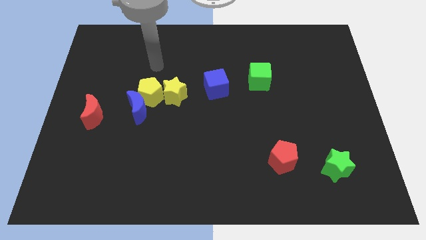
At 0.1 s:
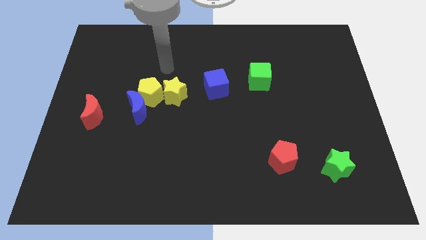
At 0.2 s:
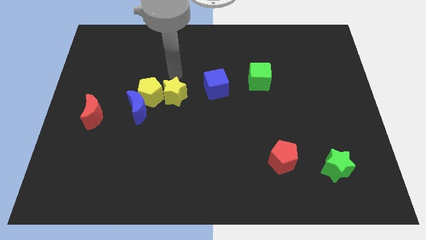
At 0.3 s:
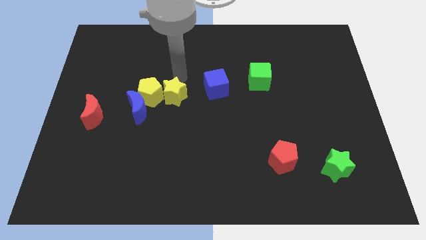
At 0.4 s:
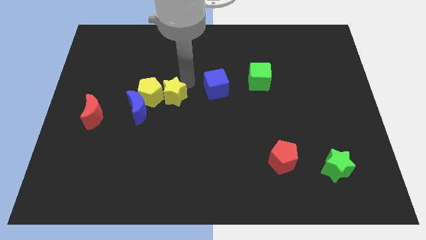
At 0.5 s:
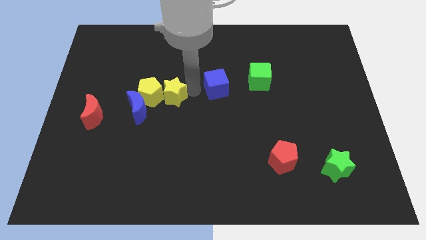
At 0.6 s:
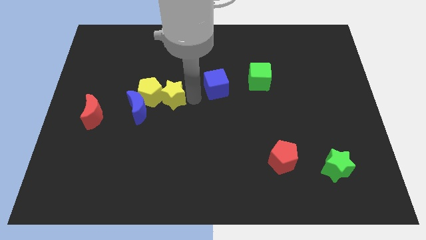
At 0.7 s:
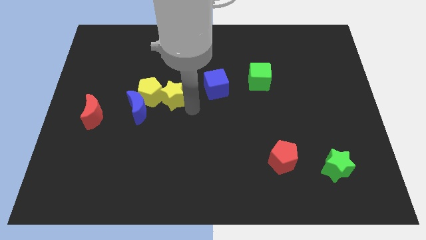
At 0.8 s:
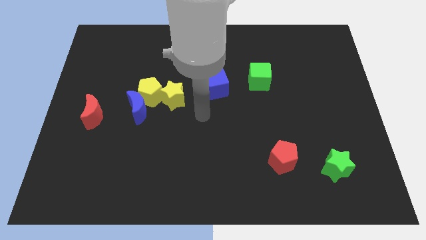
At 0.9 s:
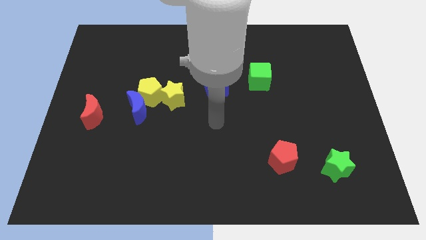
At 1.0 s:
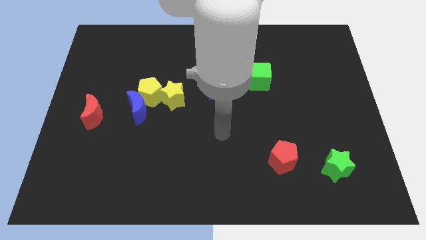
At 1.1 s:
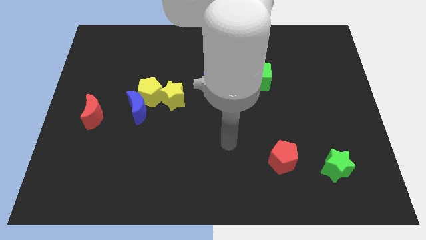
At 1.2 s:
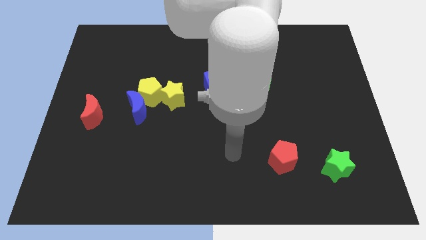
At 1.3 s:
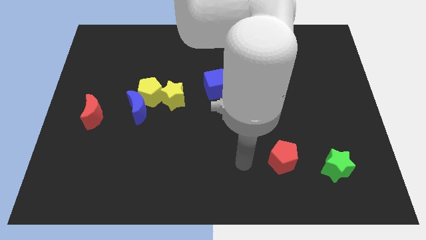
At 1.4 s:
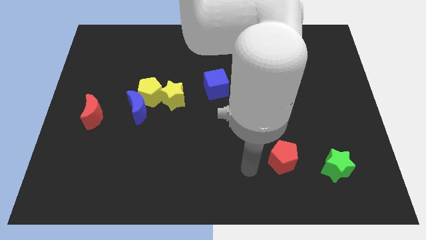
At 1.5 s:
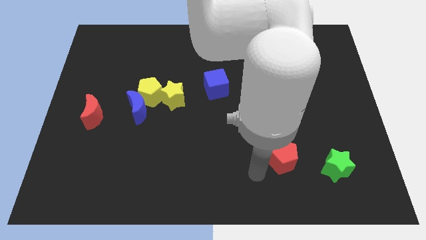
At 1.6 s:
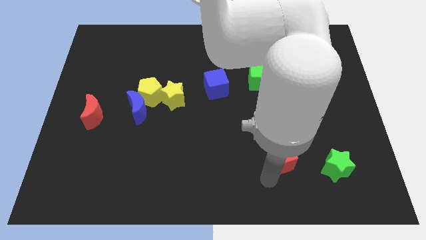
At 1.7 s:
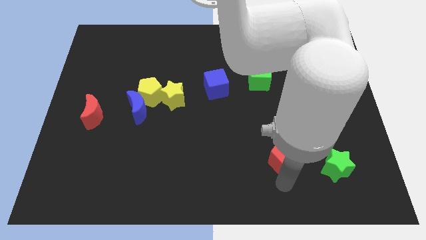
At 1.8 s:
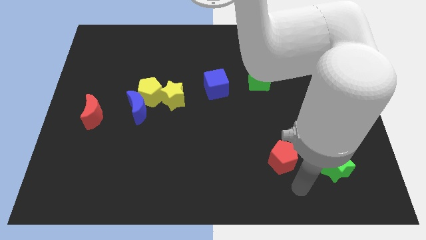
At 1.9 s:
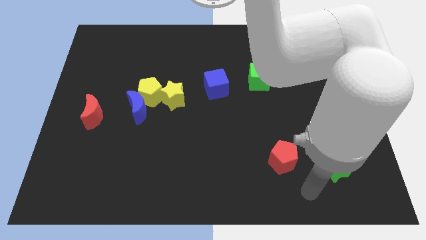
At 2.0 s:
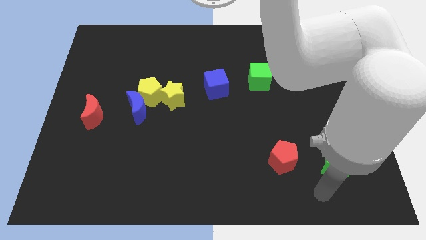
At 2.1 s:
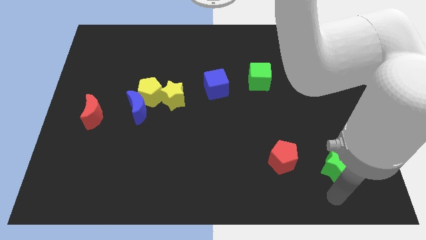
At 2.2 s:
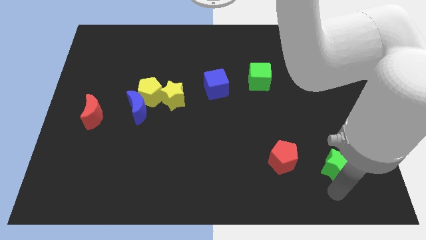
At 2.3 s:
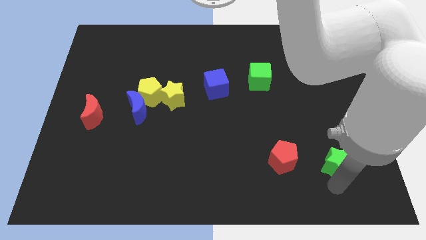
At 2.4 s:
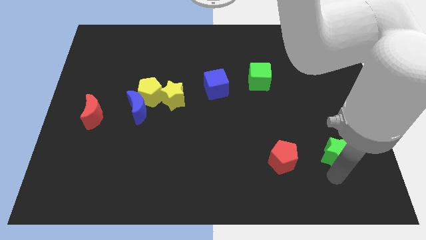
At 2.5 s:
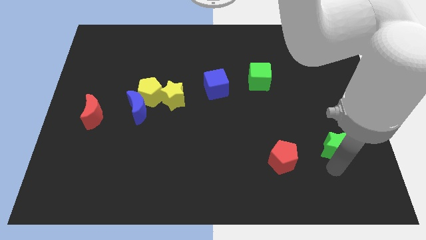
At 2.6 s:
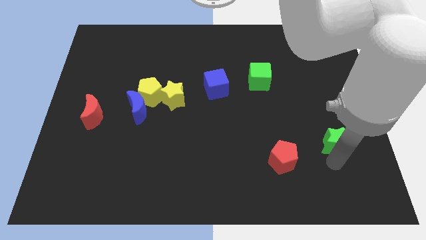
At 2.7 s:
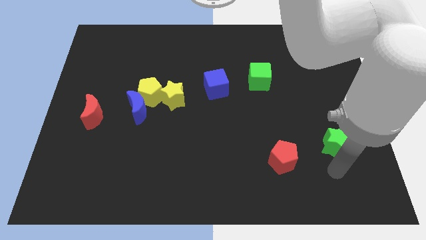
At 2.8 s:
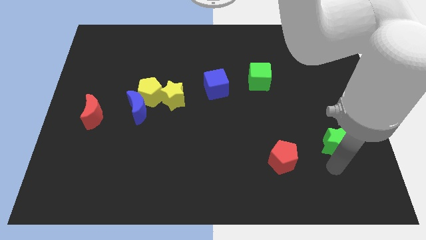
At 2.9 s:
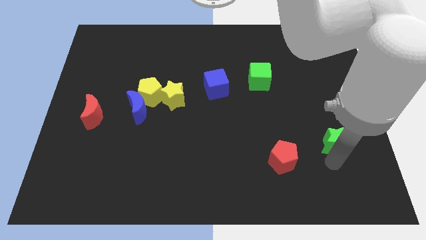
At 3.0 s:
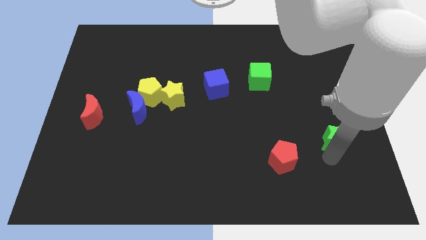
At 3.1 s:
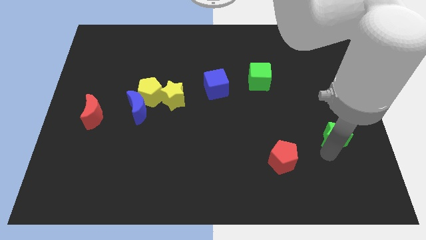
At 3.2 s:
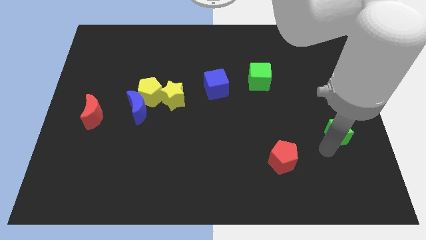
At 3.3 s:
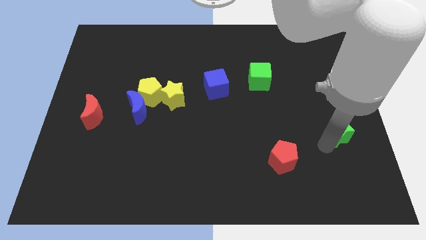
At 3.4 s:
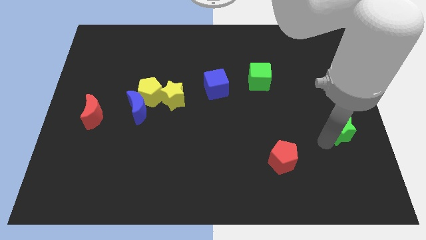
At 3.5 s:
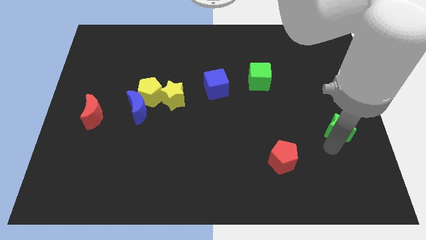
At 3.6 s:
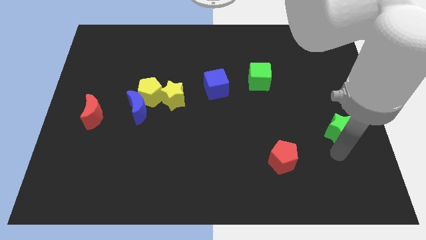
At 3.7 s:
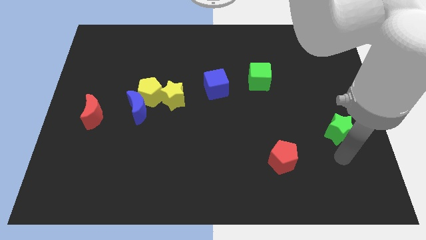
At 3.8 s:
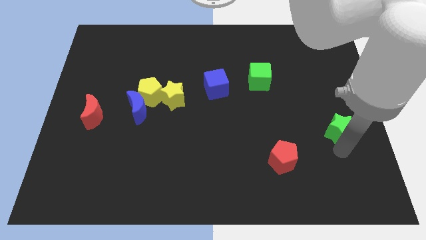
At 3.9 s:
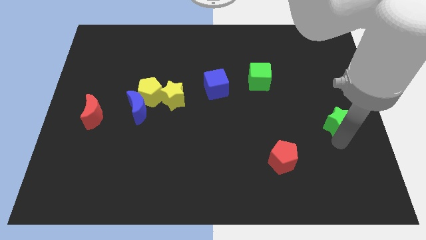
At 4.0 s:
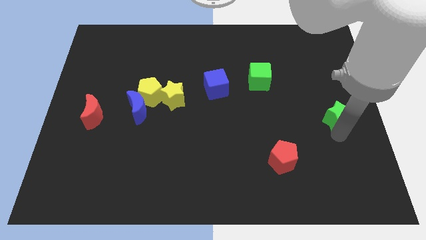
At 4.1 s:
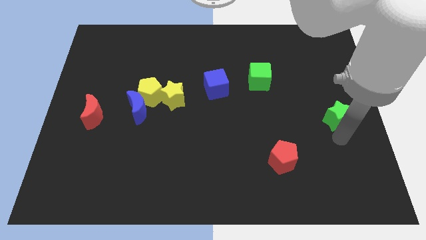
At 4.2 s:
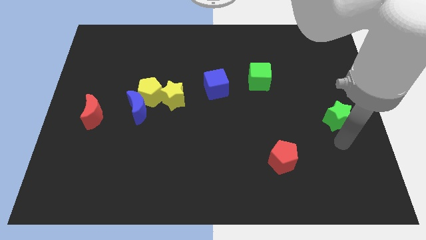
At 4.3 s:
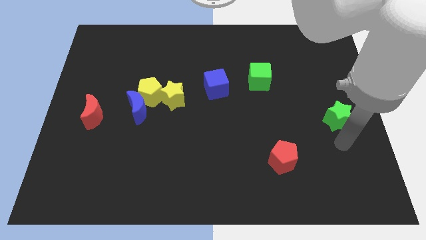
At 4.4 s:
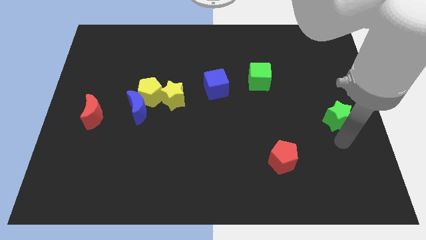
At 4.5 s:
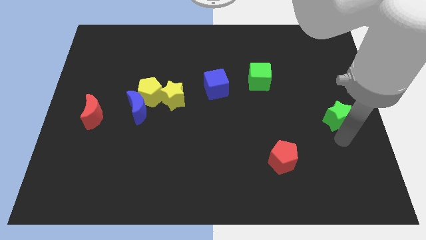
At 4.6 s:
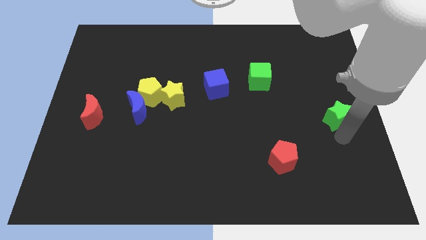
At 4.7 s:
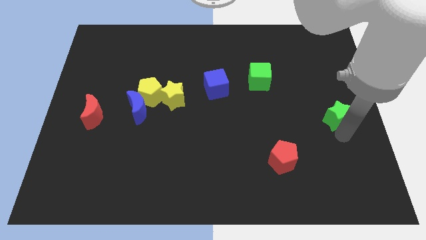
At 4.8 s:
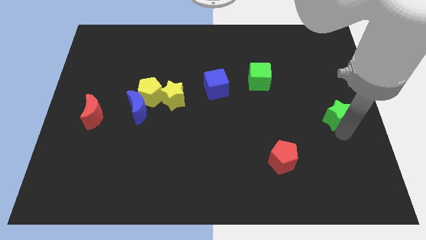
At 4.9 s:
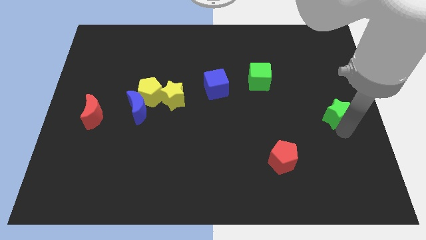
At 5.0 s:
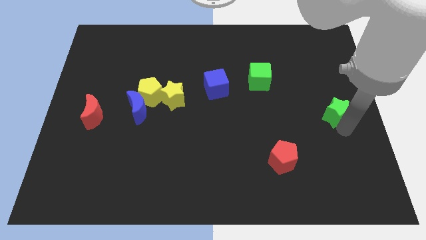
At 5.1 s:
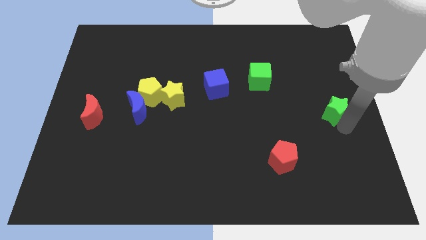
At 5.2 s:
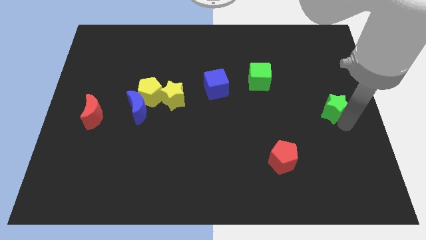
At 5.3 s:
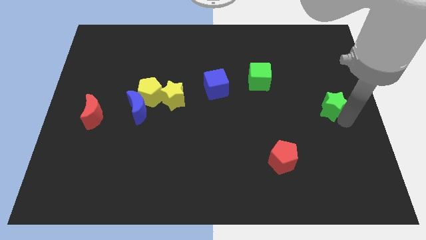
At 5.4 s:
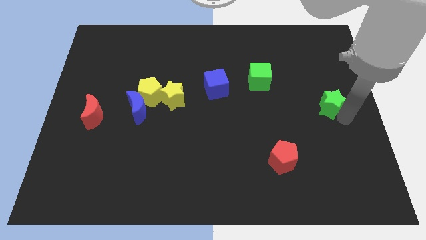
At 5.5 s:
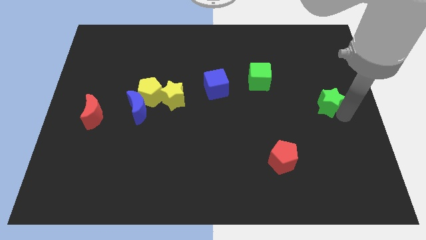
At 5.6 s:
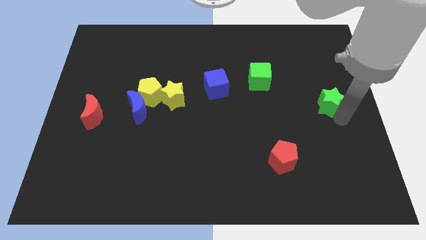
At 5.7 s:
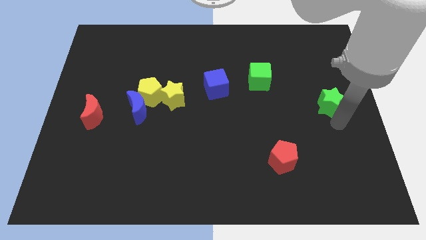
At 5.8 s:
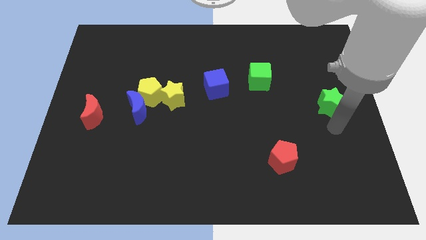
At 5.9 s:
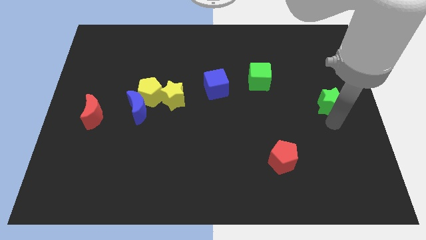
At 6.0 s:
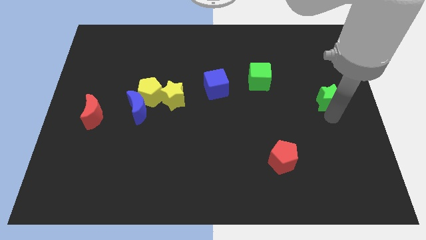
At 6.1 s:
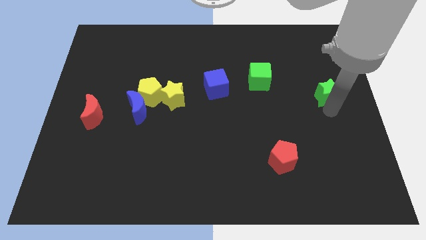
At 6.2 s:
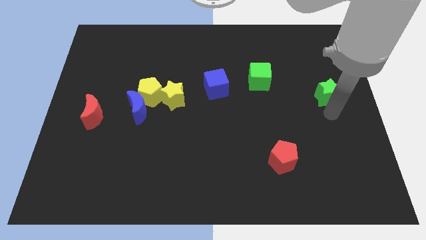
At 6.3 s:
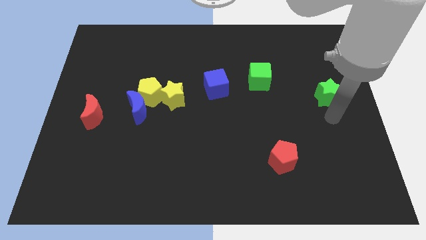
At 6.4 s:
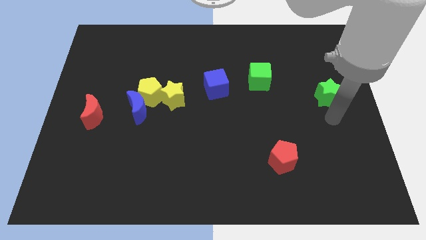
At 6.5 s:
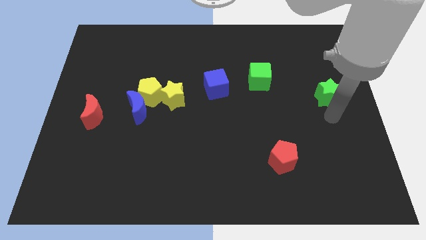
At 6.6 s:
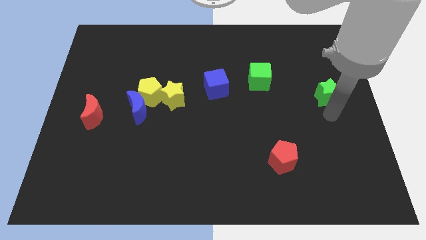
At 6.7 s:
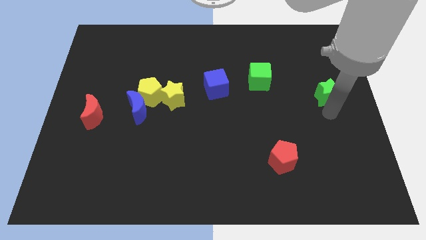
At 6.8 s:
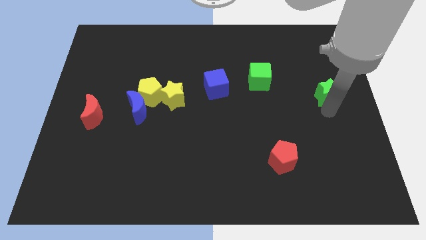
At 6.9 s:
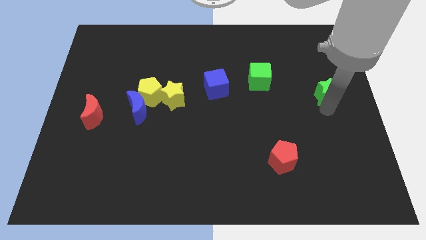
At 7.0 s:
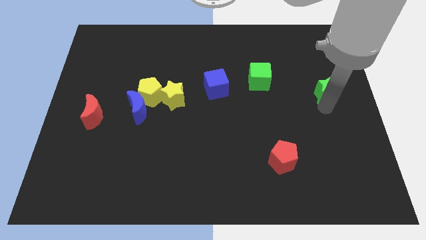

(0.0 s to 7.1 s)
move the green star up

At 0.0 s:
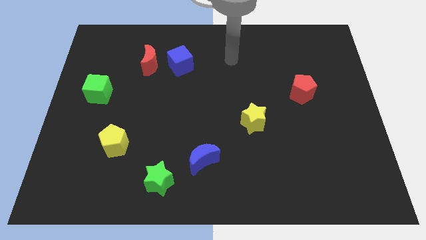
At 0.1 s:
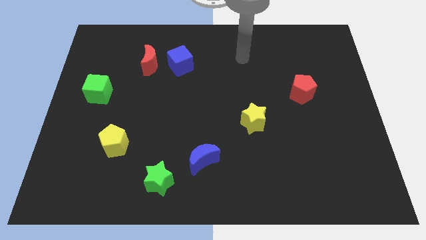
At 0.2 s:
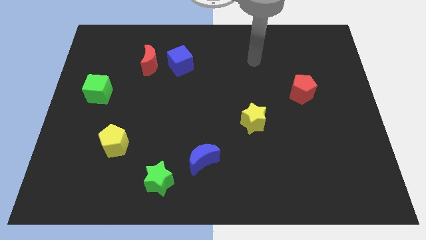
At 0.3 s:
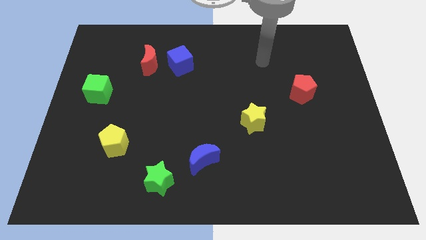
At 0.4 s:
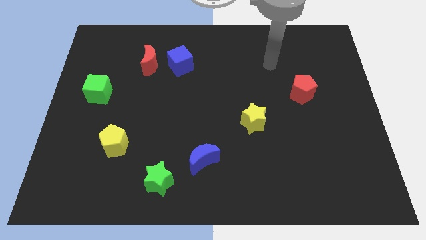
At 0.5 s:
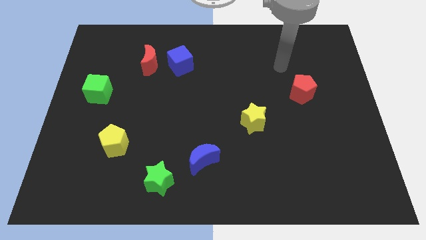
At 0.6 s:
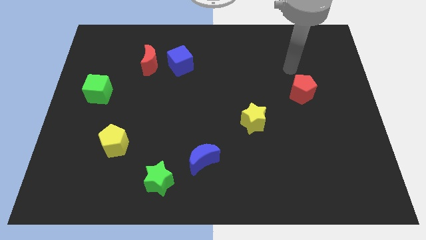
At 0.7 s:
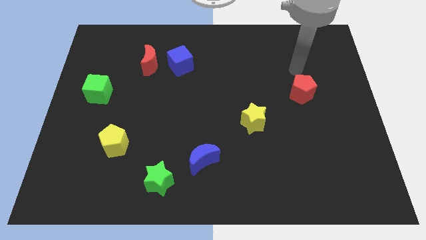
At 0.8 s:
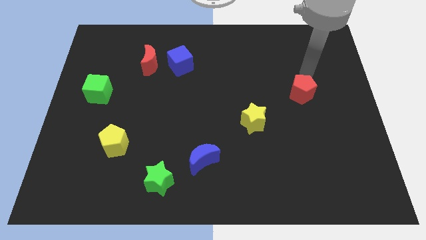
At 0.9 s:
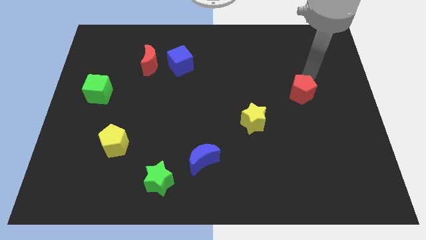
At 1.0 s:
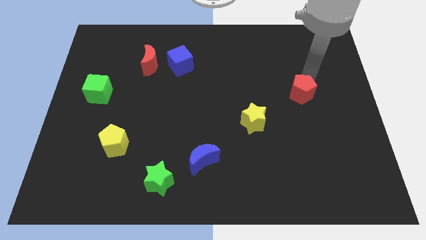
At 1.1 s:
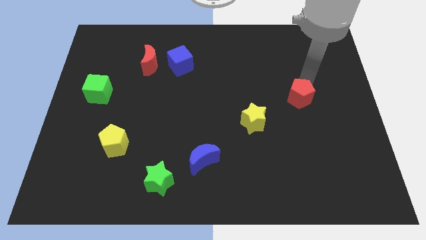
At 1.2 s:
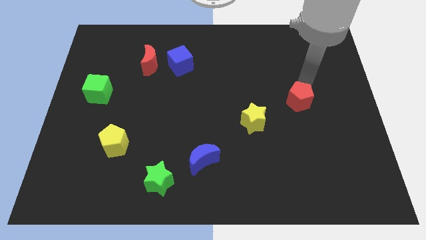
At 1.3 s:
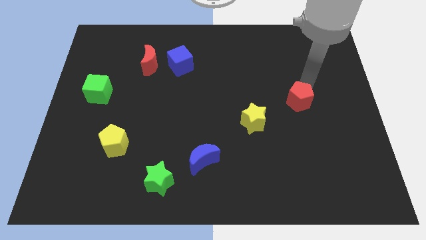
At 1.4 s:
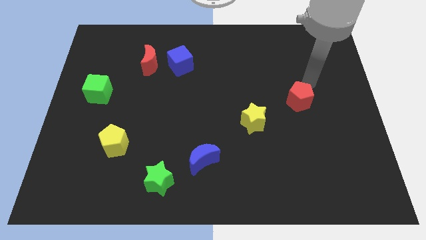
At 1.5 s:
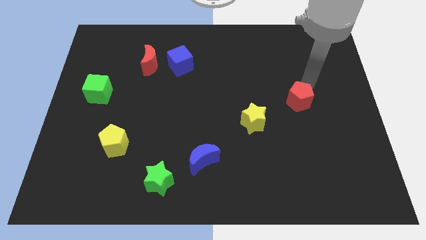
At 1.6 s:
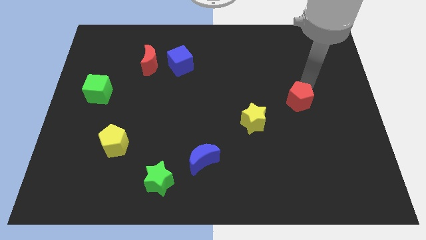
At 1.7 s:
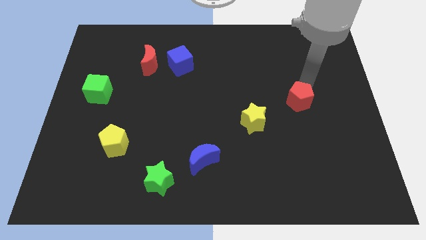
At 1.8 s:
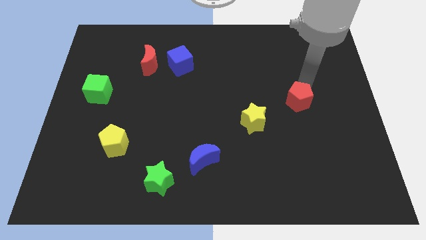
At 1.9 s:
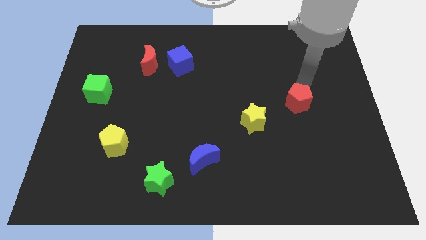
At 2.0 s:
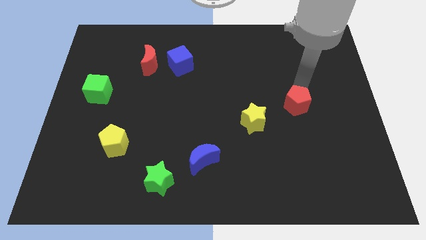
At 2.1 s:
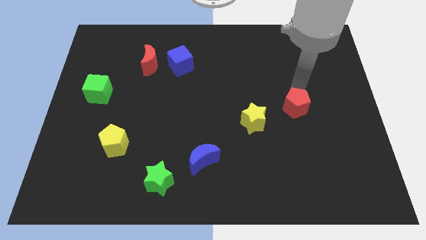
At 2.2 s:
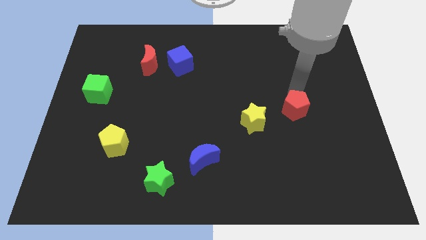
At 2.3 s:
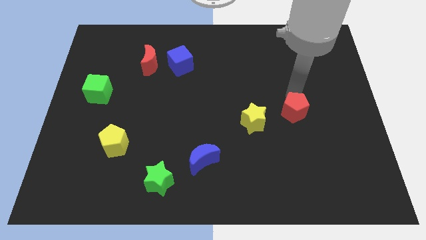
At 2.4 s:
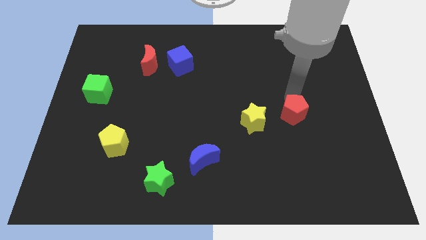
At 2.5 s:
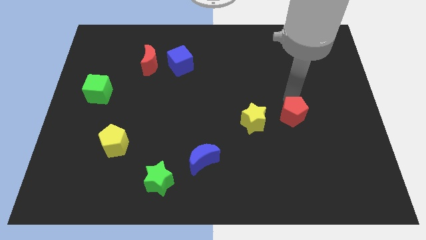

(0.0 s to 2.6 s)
slightly push the red pentagon down and then to the left
